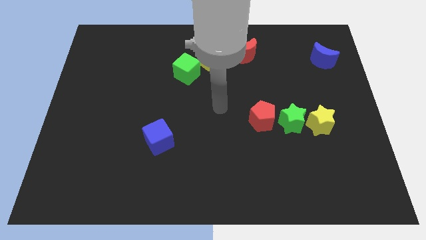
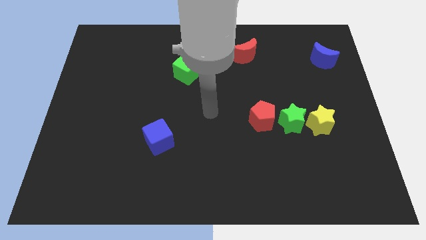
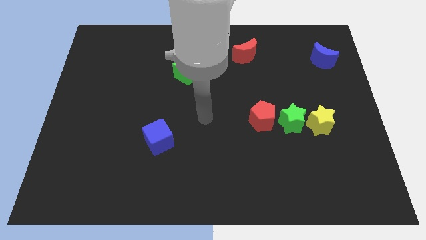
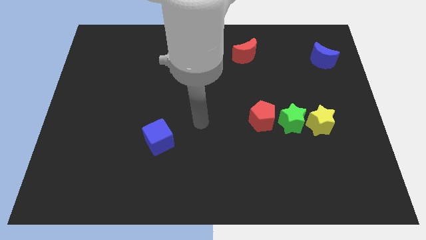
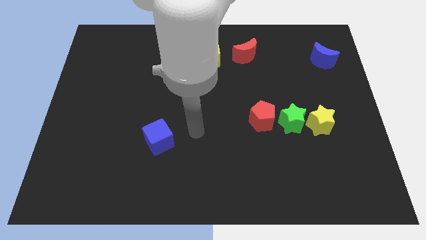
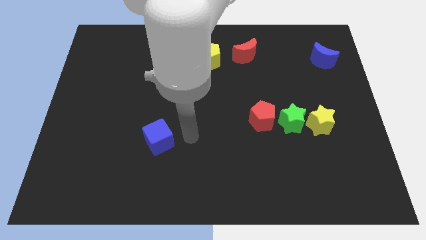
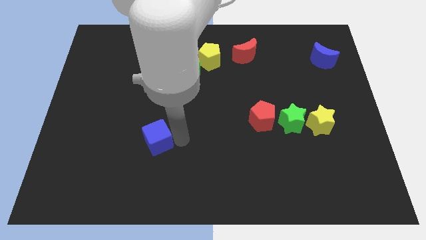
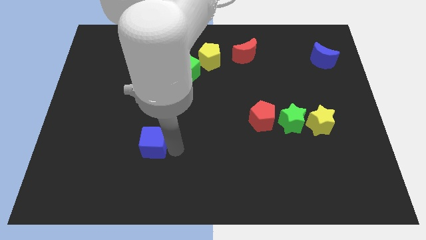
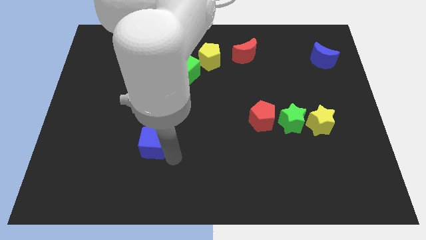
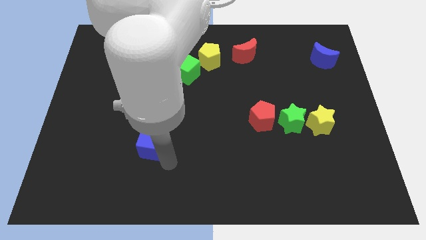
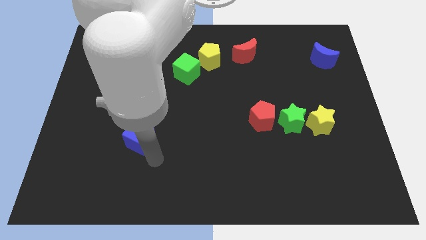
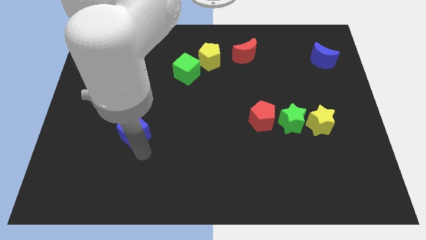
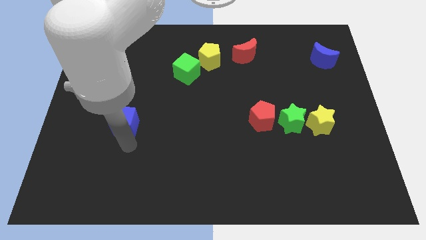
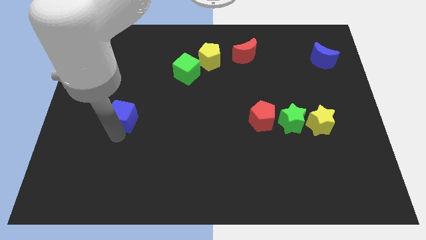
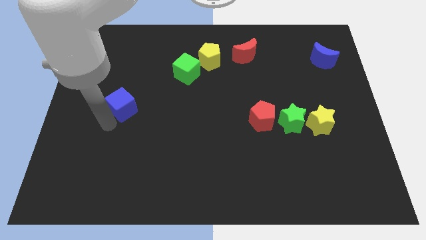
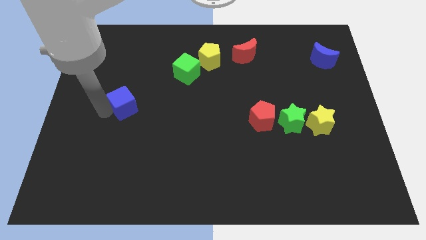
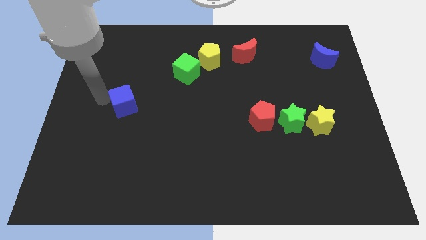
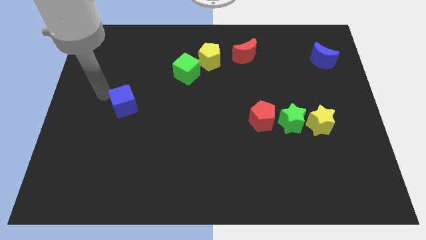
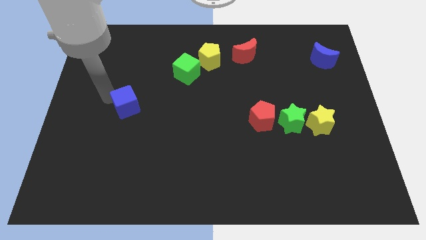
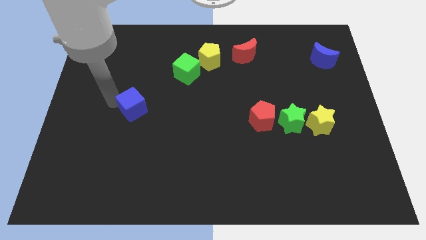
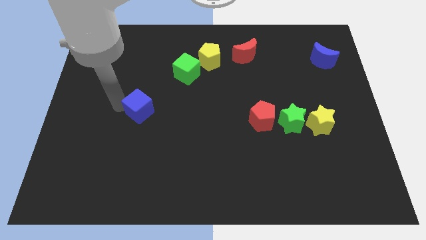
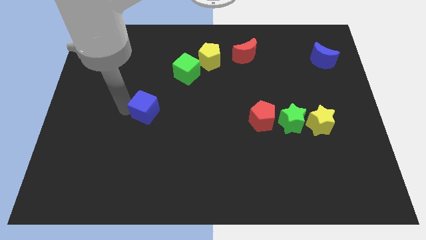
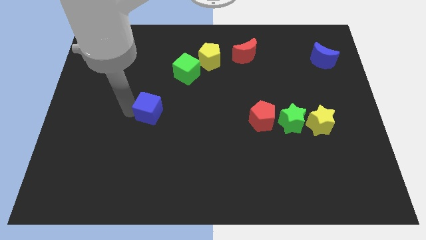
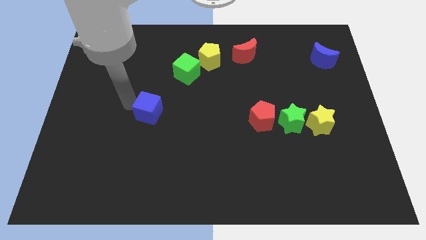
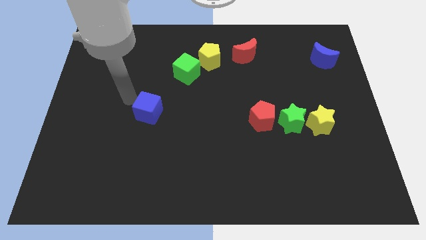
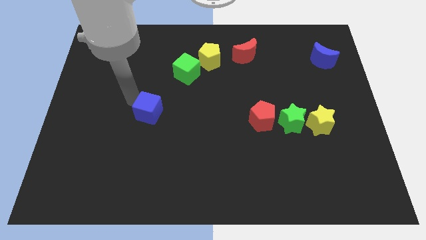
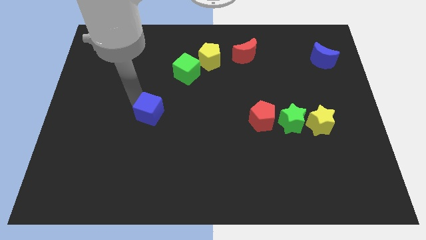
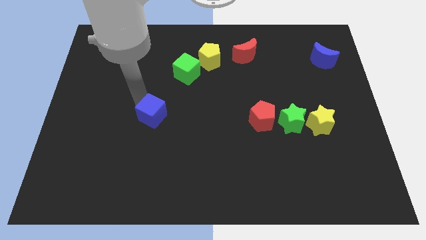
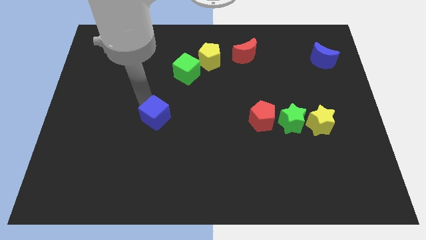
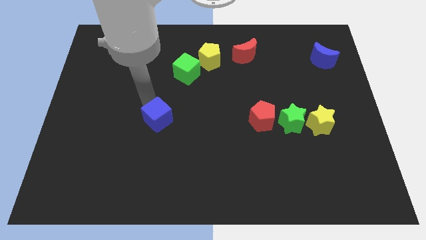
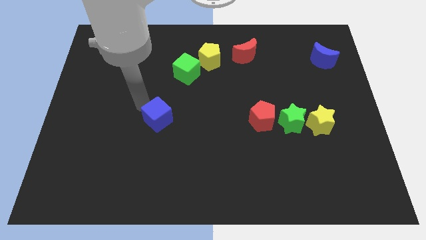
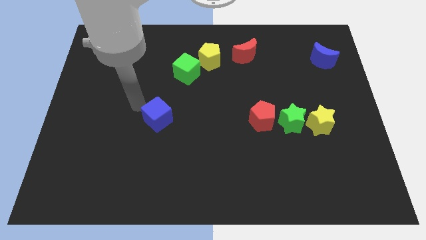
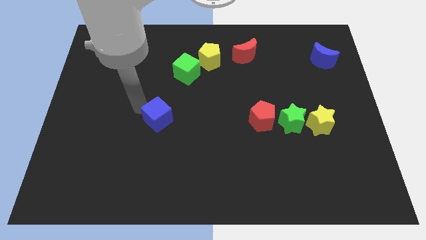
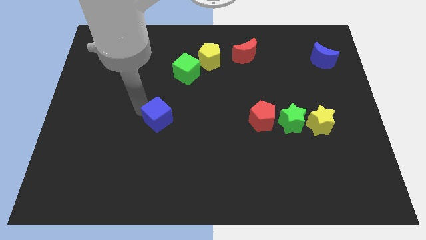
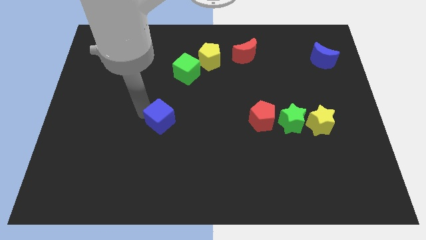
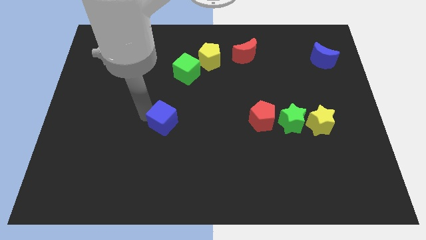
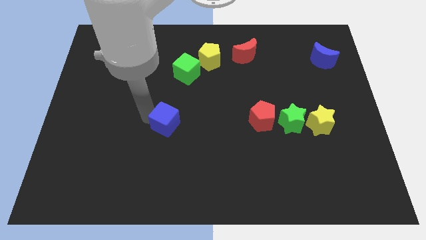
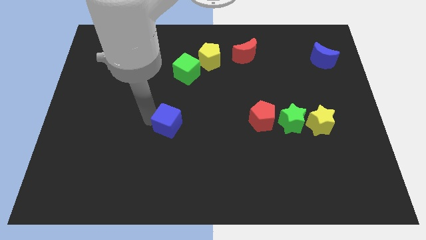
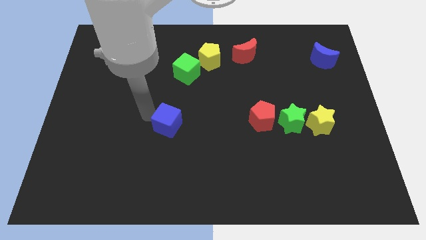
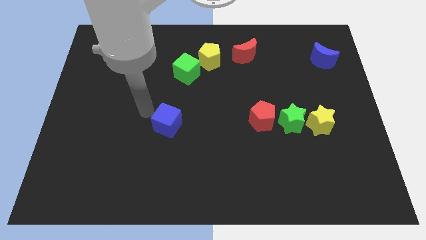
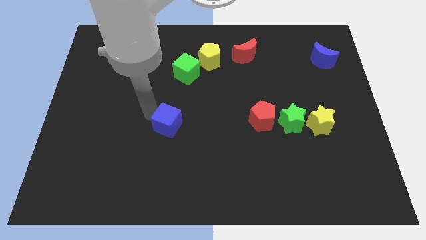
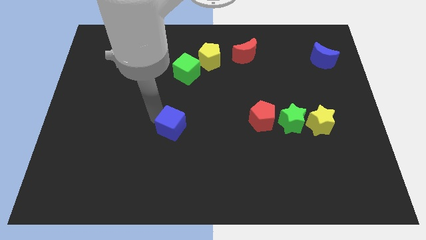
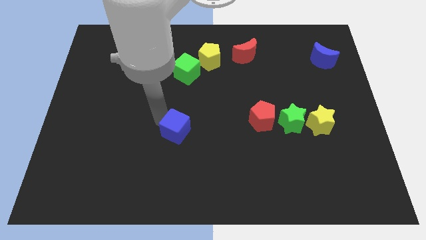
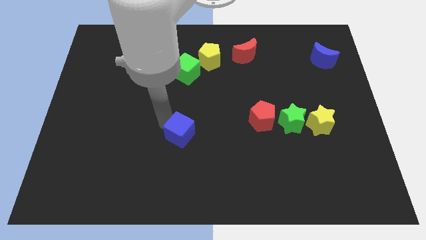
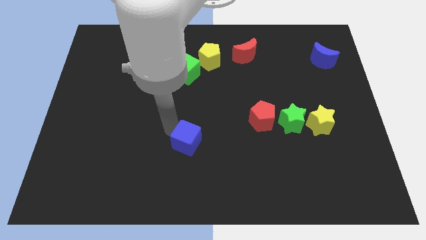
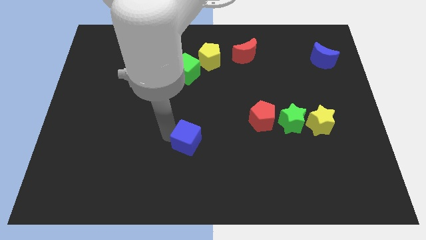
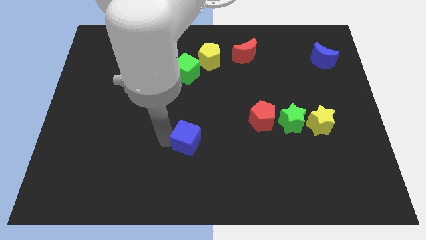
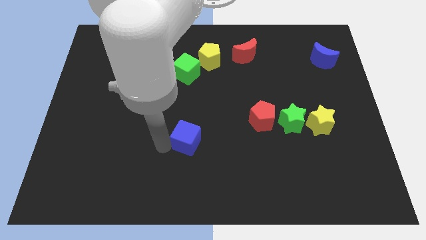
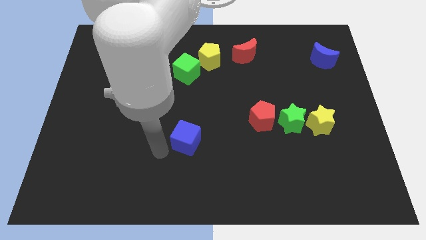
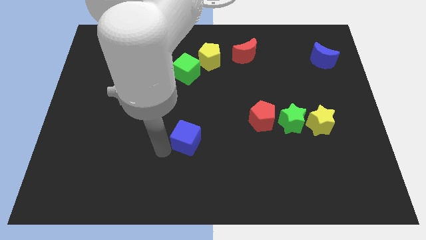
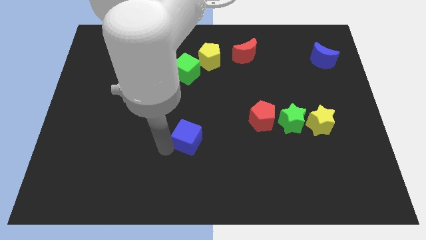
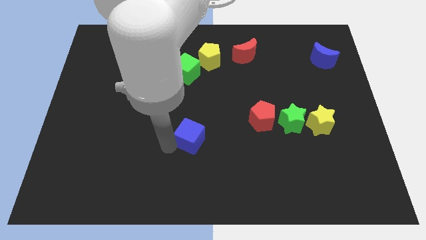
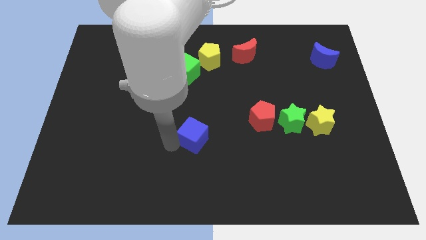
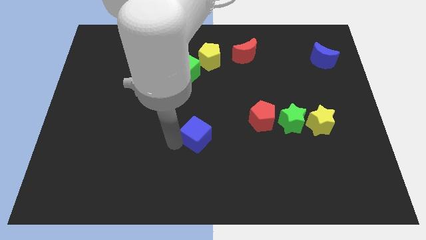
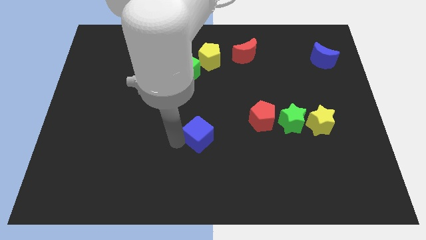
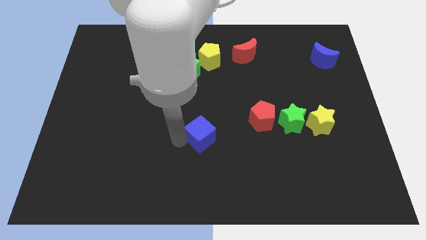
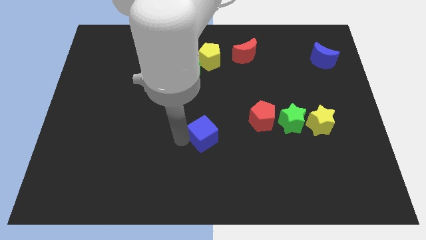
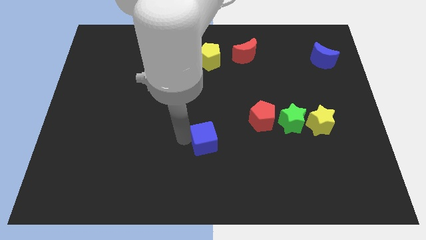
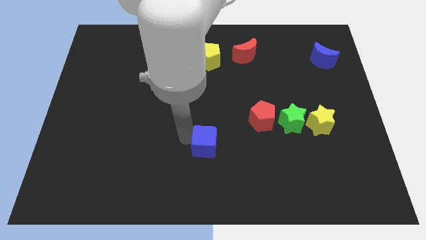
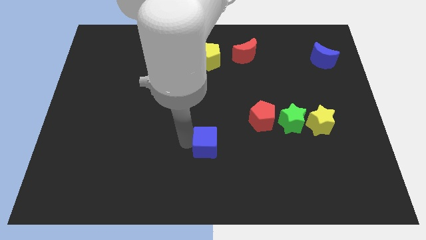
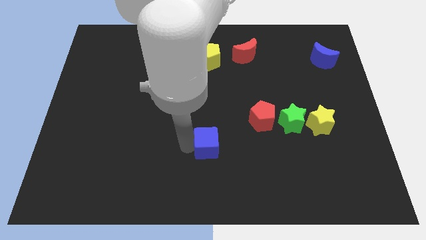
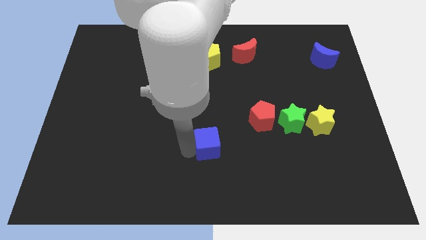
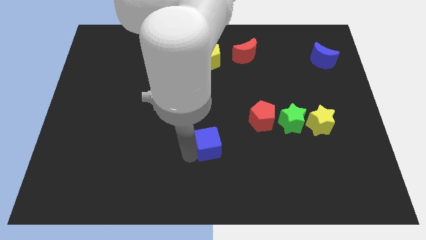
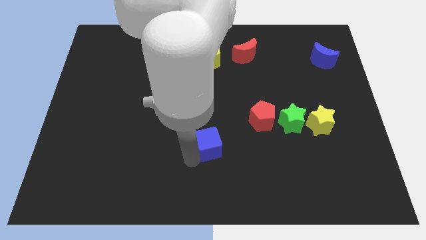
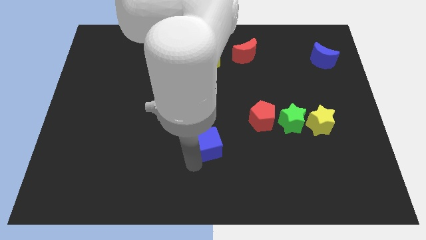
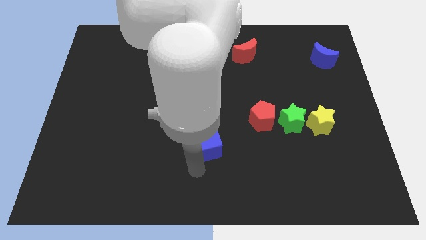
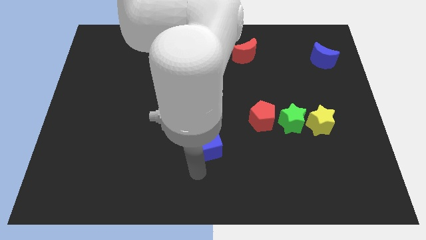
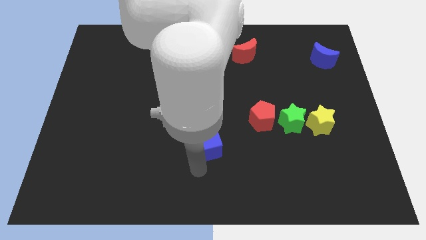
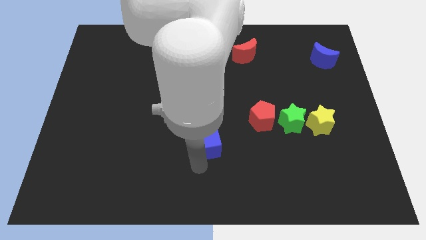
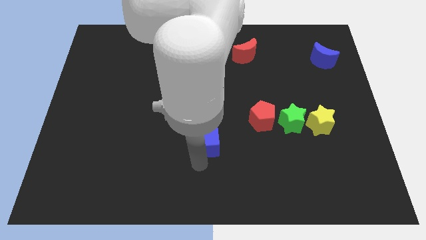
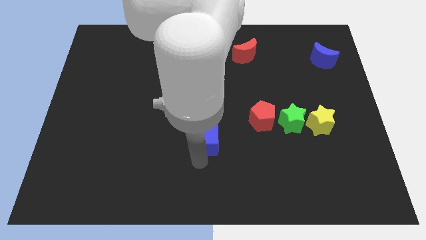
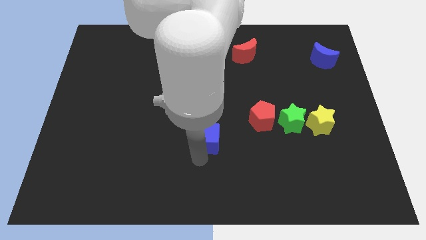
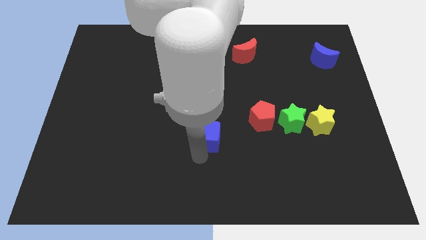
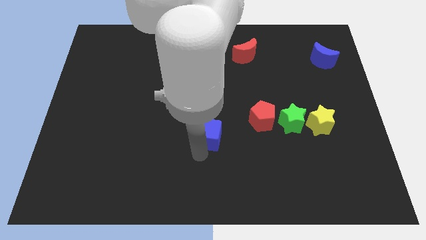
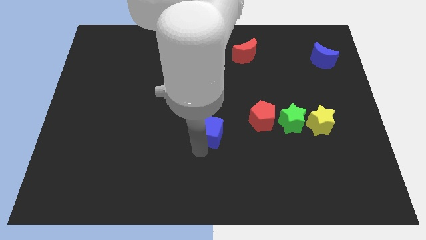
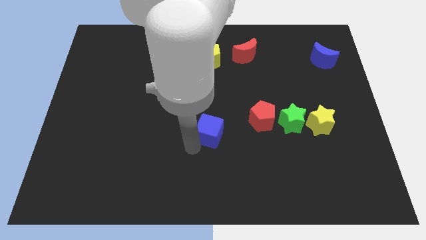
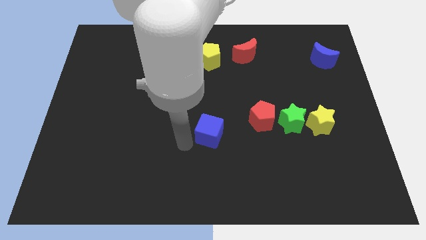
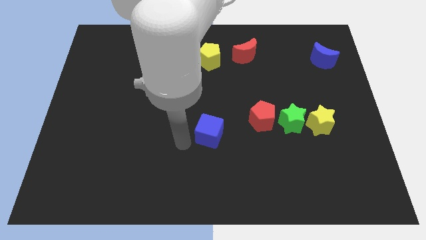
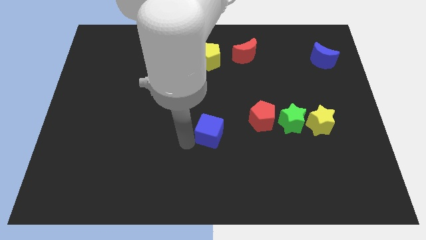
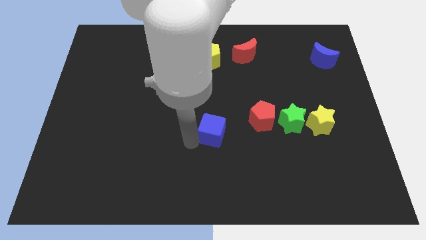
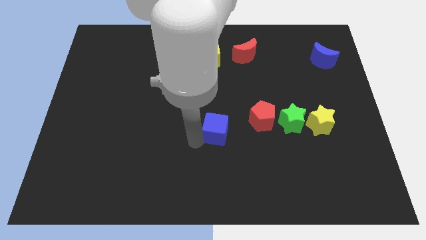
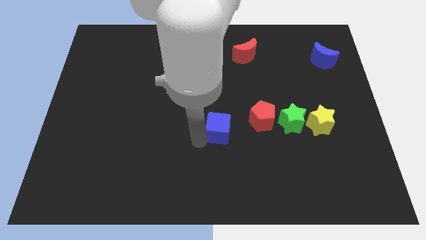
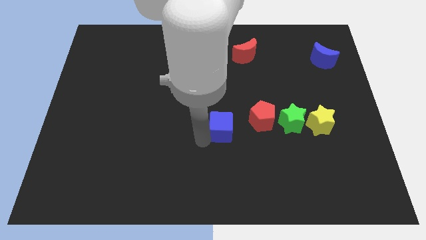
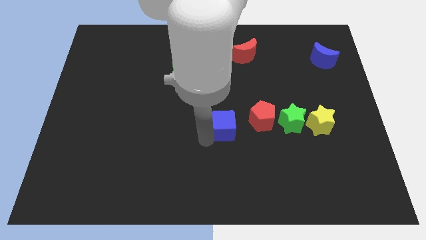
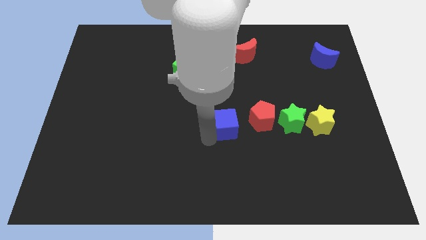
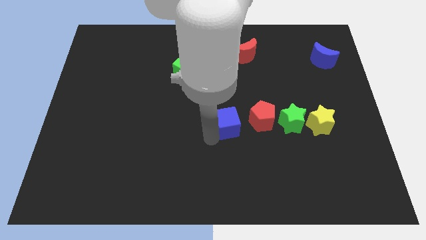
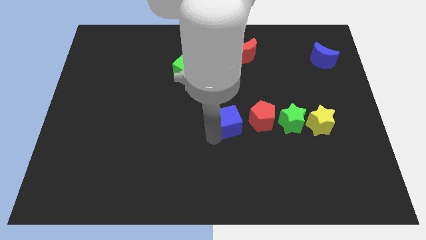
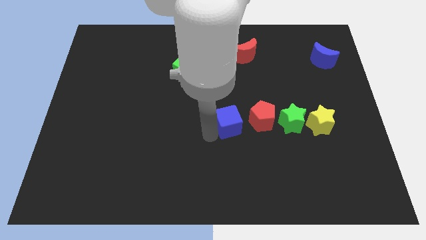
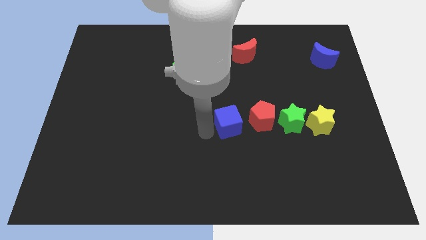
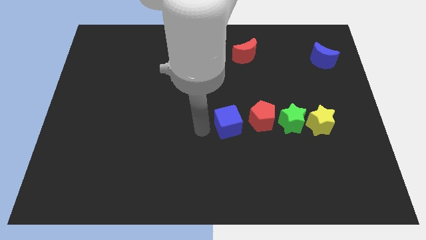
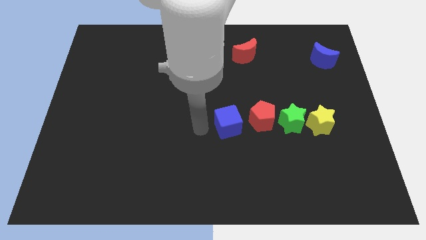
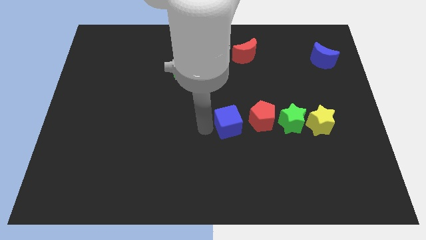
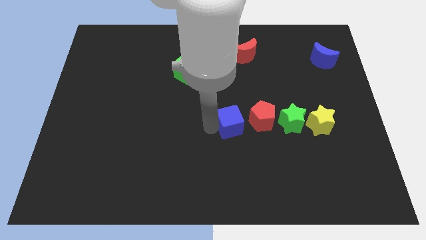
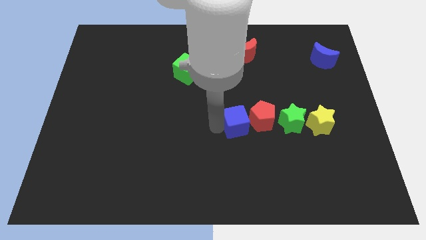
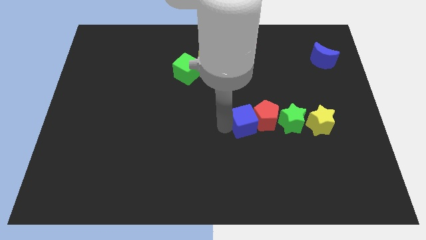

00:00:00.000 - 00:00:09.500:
push the blue cube next to the red pentagon
